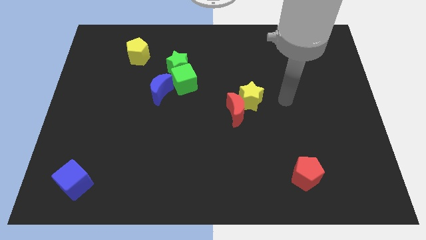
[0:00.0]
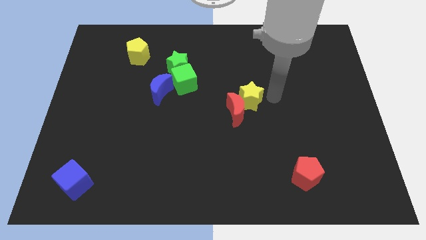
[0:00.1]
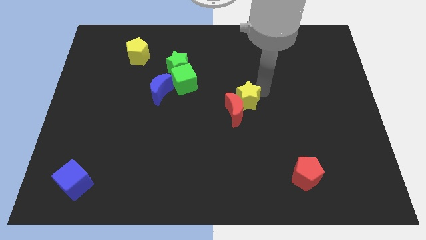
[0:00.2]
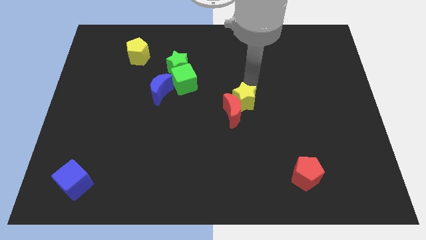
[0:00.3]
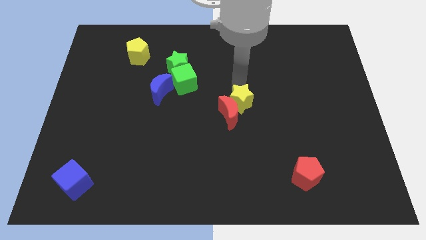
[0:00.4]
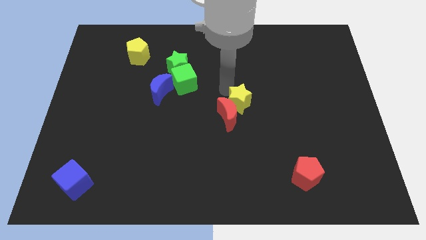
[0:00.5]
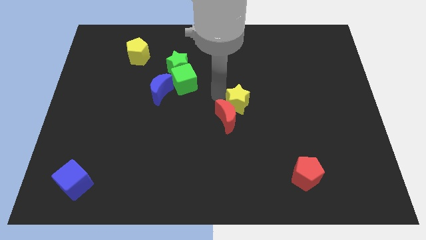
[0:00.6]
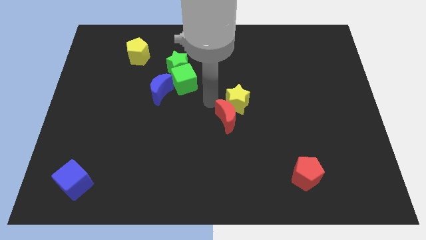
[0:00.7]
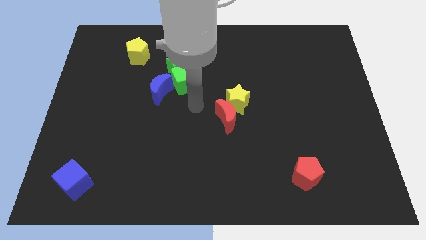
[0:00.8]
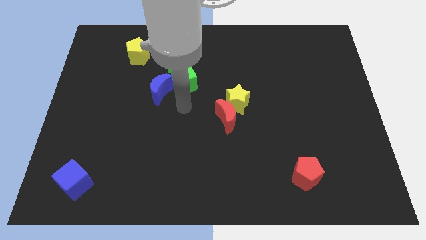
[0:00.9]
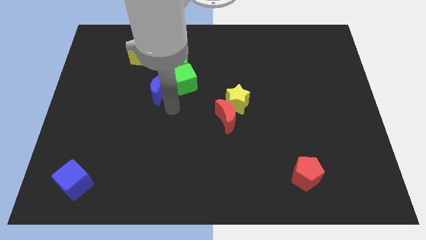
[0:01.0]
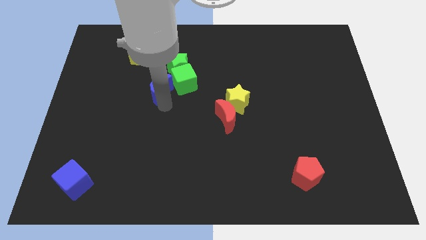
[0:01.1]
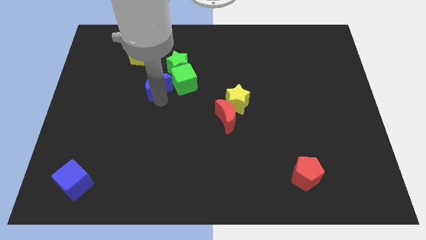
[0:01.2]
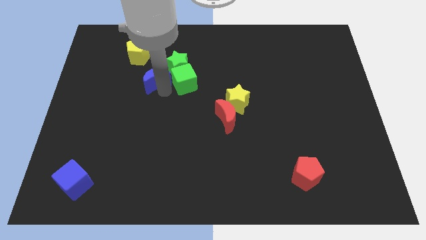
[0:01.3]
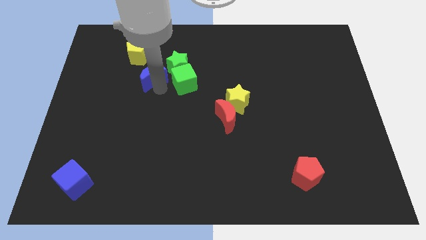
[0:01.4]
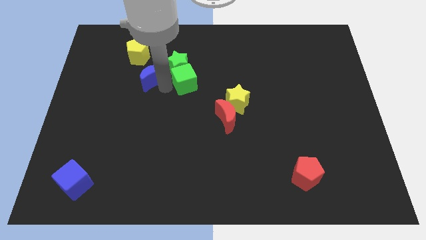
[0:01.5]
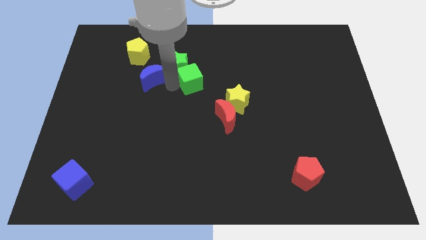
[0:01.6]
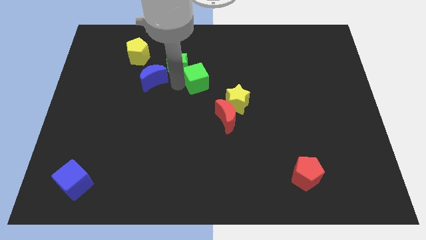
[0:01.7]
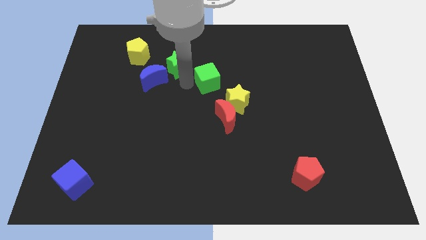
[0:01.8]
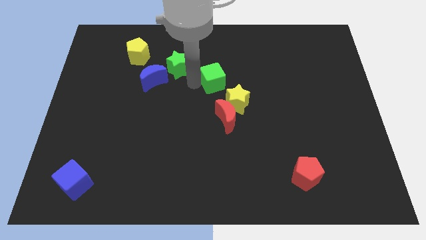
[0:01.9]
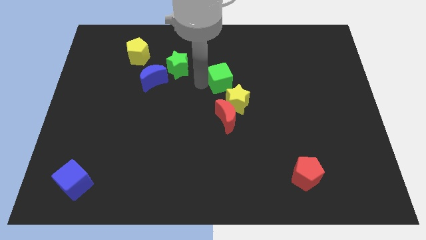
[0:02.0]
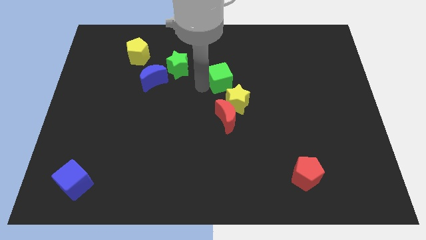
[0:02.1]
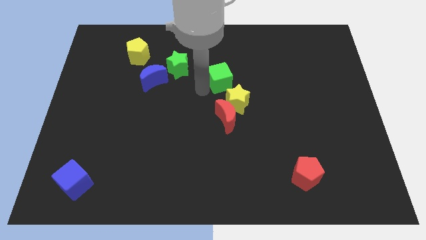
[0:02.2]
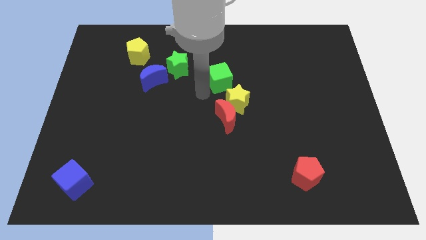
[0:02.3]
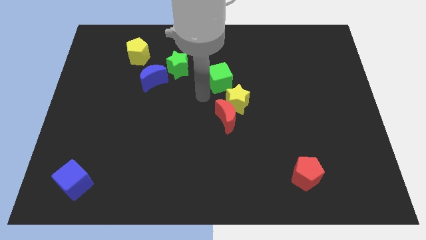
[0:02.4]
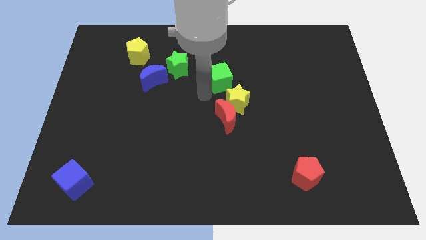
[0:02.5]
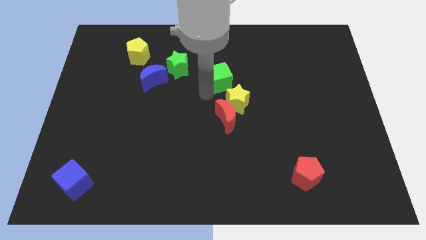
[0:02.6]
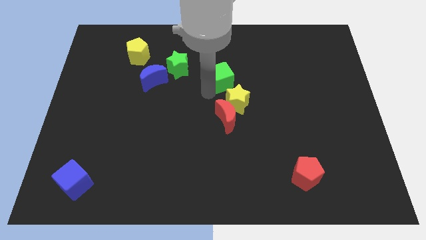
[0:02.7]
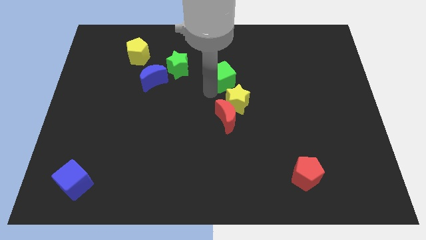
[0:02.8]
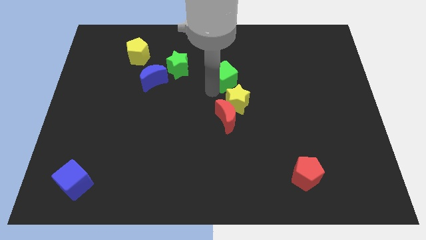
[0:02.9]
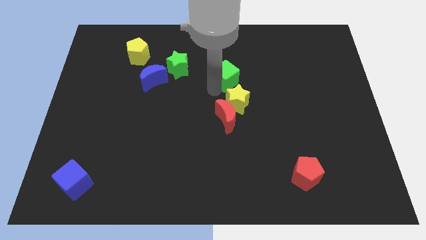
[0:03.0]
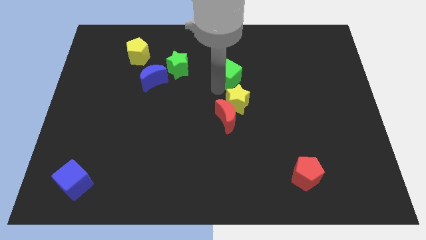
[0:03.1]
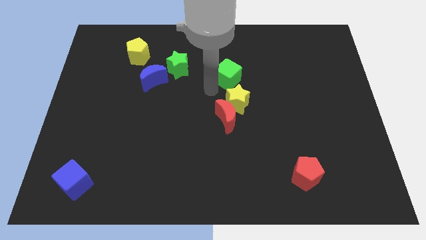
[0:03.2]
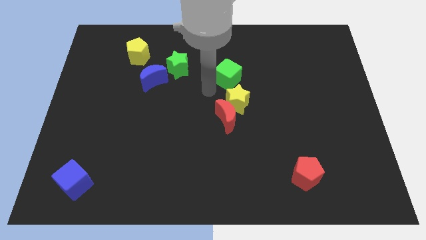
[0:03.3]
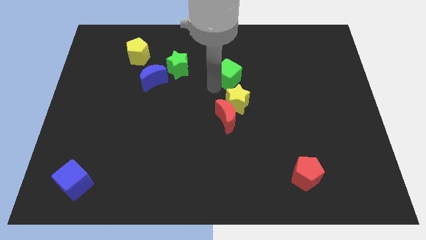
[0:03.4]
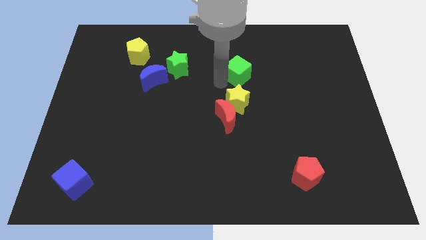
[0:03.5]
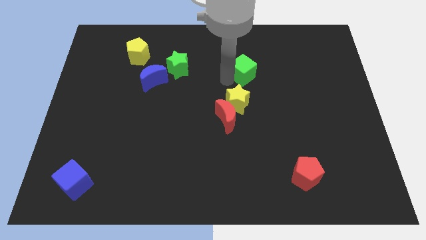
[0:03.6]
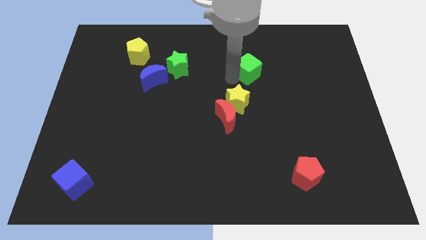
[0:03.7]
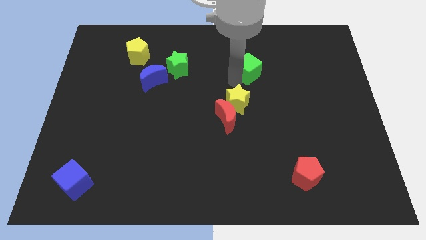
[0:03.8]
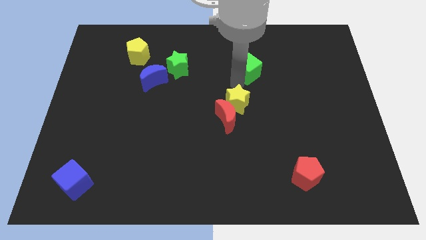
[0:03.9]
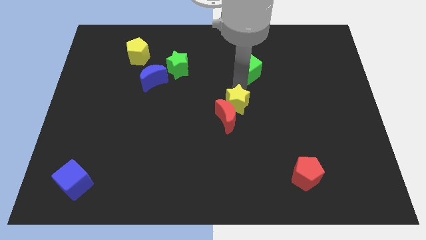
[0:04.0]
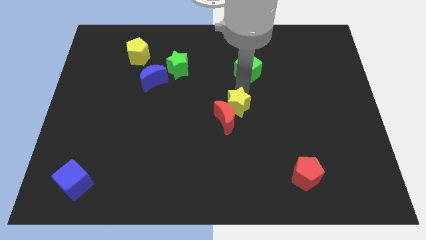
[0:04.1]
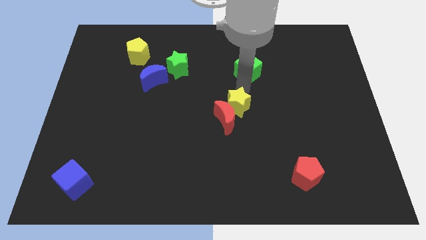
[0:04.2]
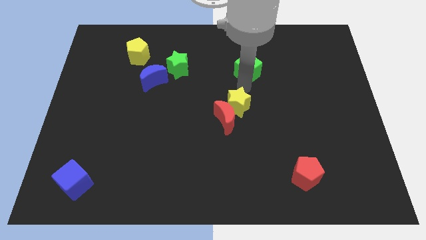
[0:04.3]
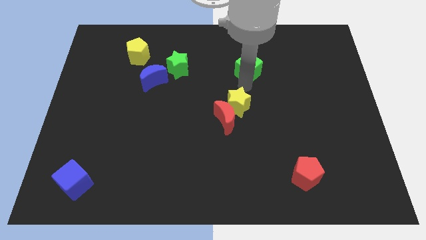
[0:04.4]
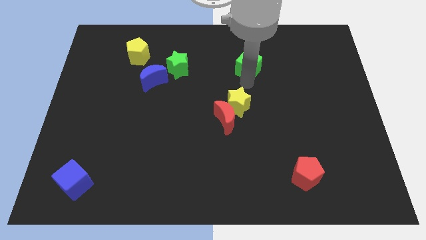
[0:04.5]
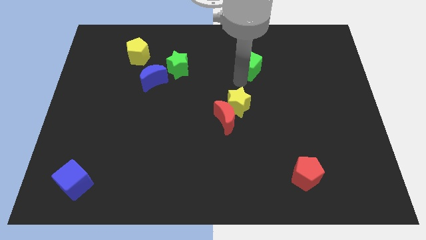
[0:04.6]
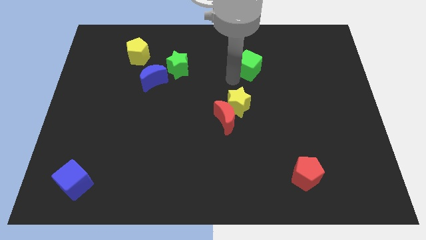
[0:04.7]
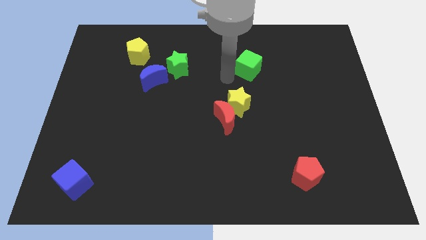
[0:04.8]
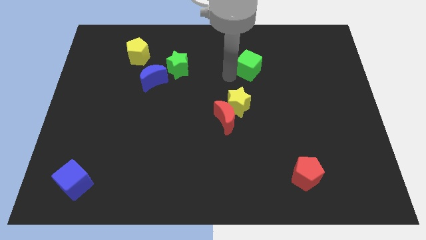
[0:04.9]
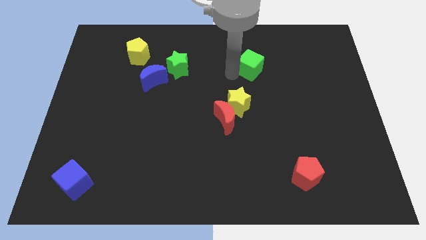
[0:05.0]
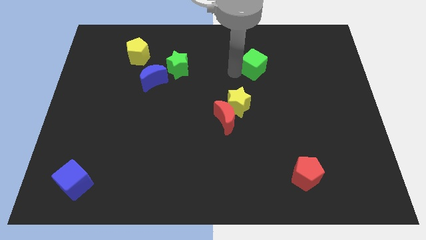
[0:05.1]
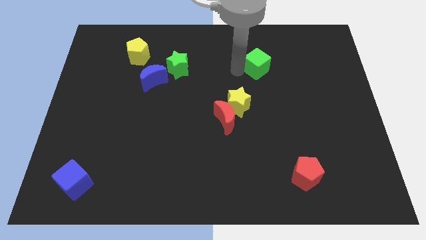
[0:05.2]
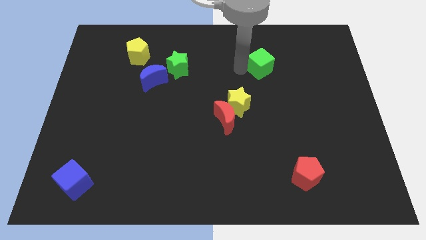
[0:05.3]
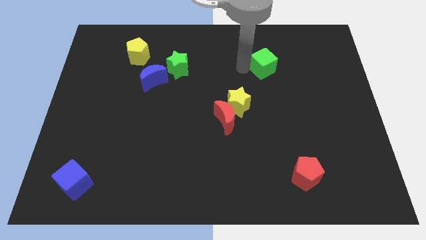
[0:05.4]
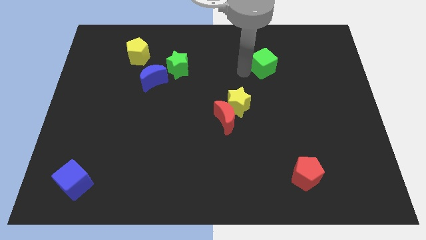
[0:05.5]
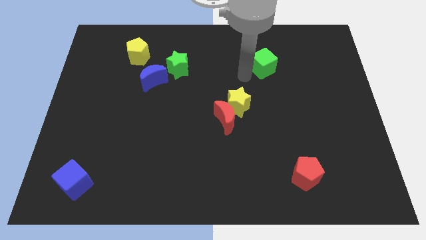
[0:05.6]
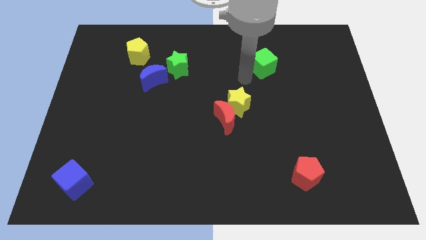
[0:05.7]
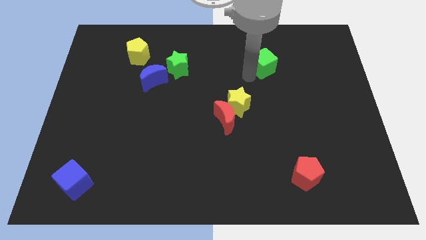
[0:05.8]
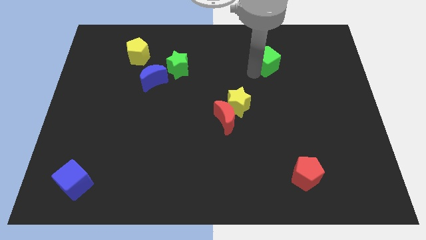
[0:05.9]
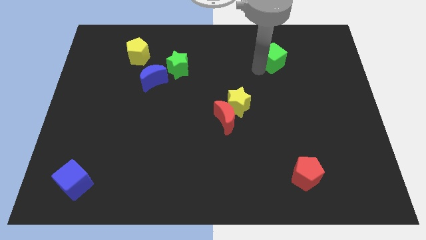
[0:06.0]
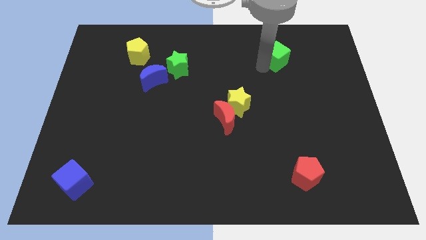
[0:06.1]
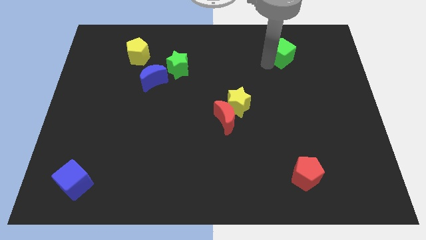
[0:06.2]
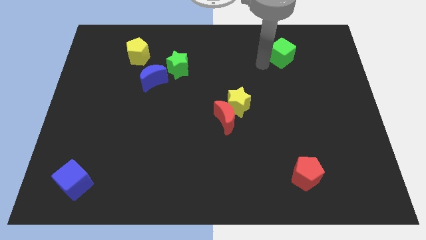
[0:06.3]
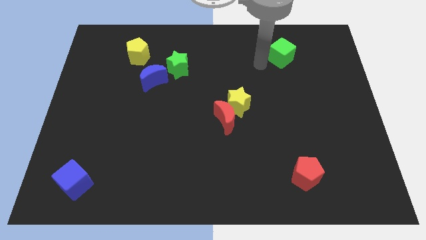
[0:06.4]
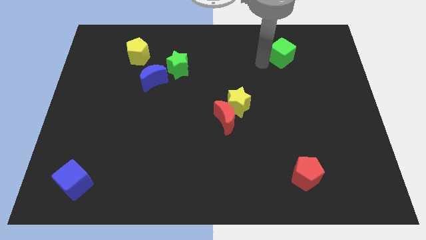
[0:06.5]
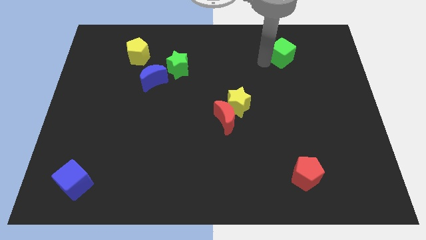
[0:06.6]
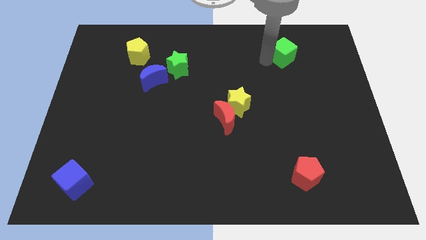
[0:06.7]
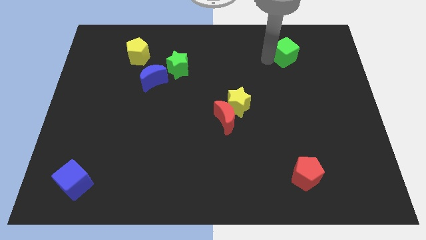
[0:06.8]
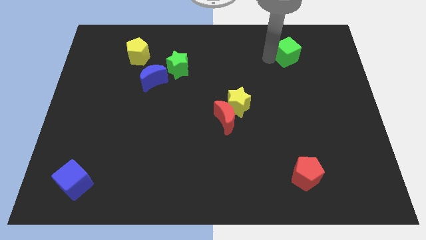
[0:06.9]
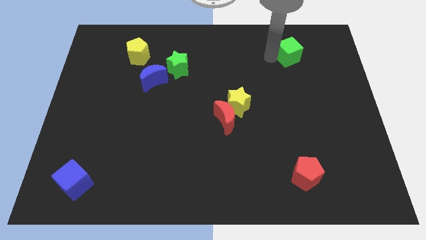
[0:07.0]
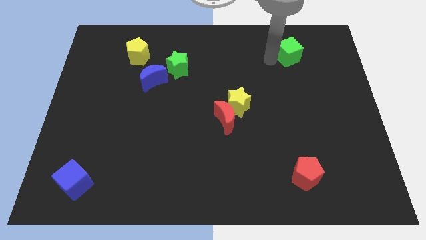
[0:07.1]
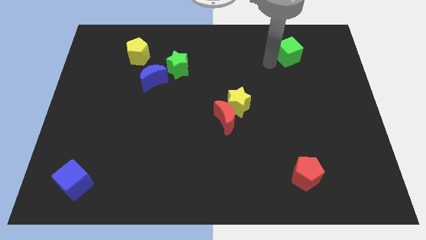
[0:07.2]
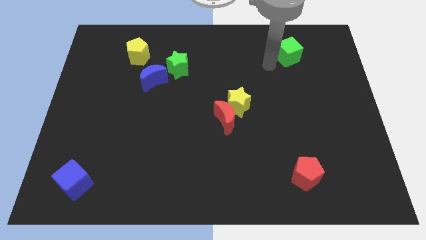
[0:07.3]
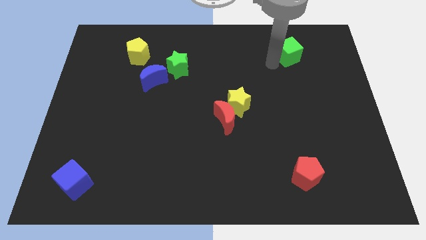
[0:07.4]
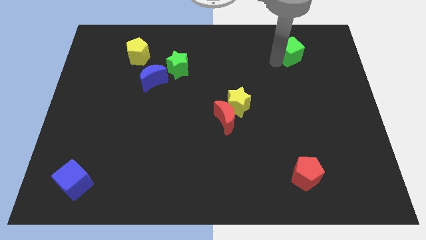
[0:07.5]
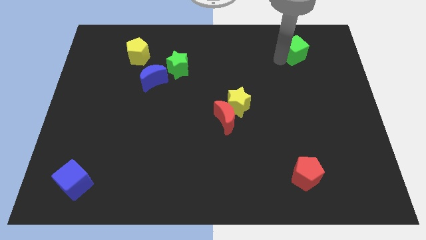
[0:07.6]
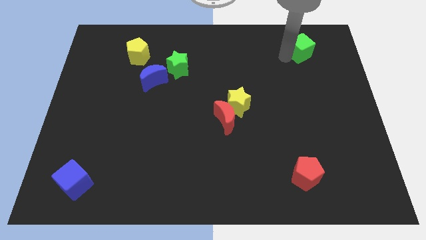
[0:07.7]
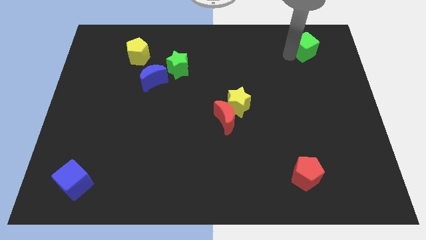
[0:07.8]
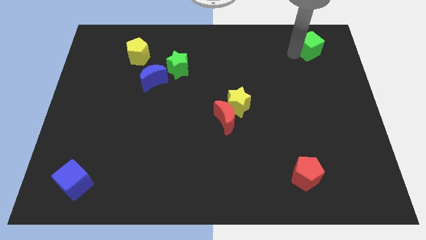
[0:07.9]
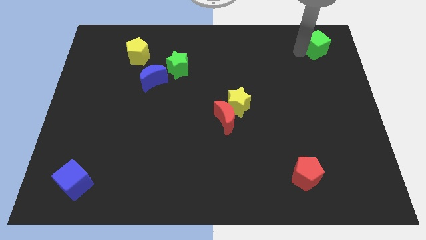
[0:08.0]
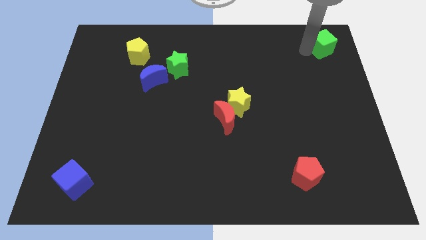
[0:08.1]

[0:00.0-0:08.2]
slide the green cube to the top right of the board
